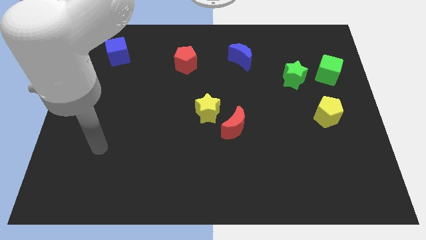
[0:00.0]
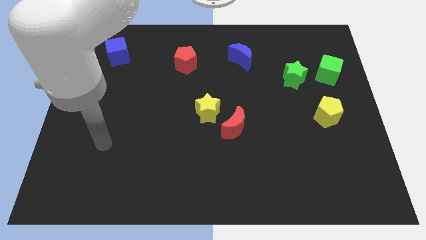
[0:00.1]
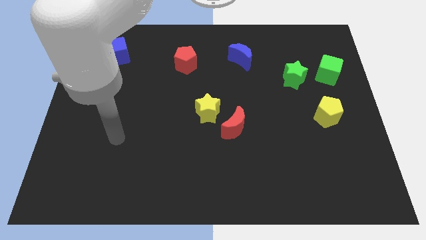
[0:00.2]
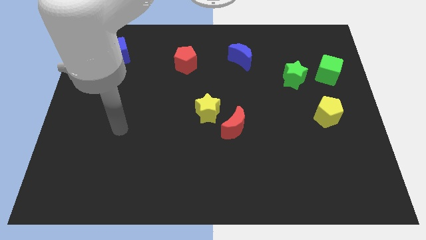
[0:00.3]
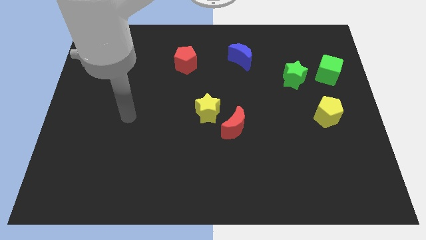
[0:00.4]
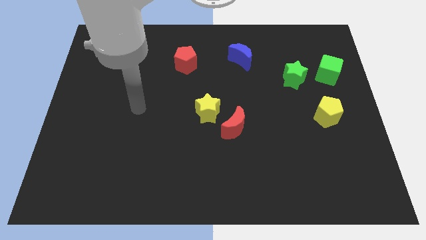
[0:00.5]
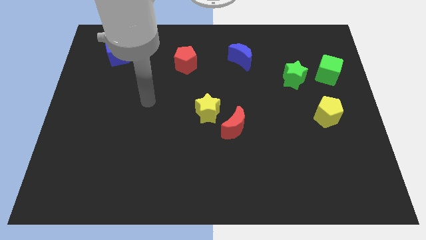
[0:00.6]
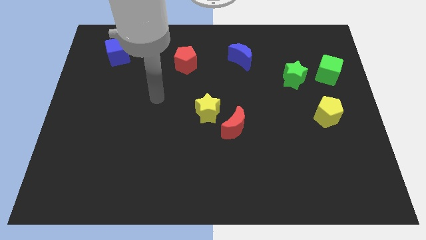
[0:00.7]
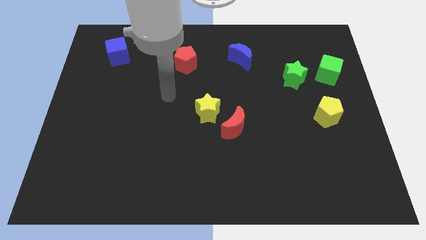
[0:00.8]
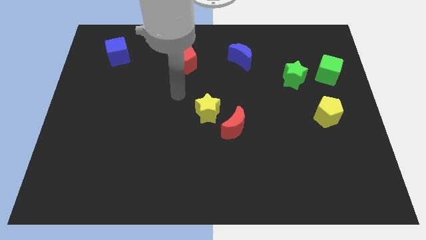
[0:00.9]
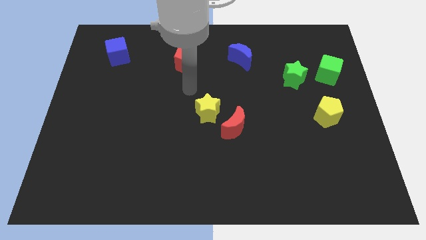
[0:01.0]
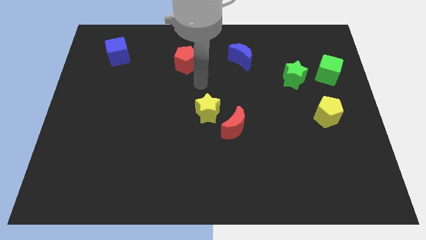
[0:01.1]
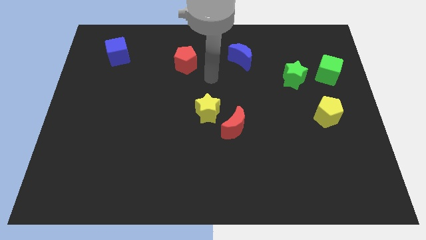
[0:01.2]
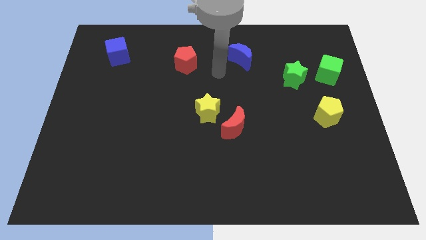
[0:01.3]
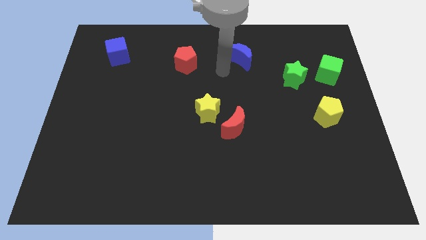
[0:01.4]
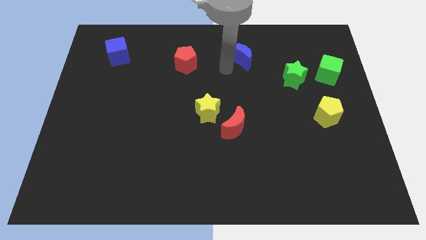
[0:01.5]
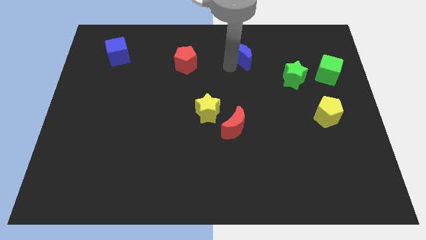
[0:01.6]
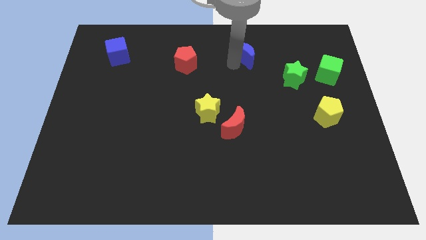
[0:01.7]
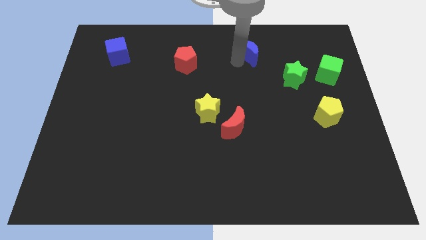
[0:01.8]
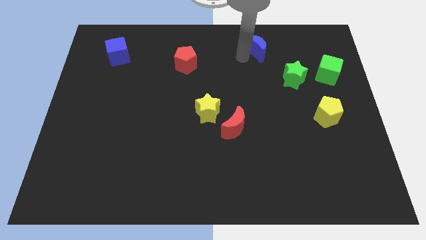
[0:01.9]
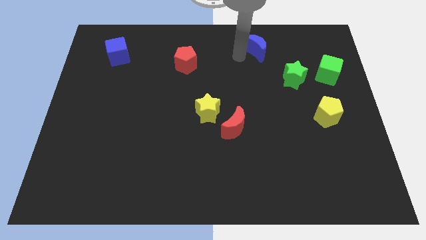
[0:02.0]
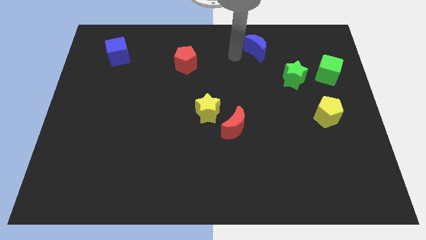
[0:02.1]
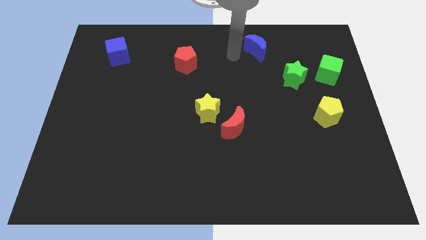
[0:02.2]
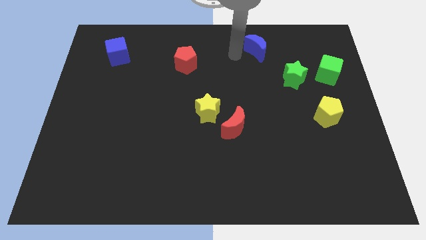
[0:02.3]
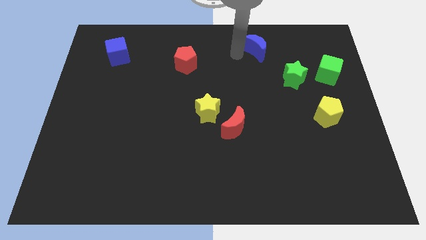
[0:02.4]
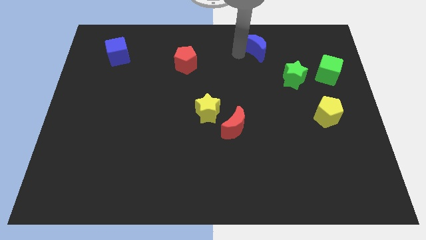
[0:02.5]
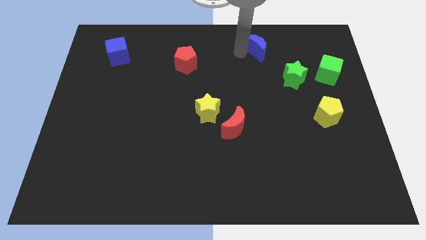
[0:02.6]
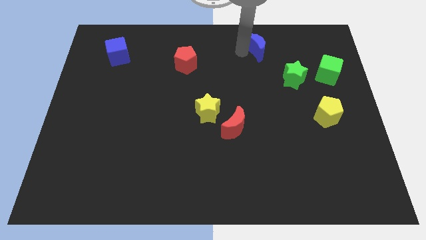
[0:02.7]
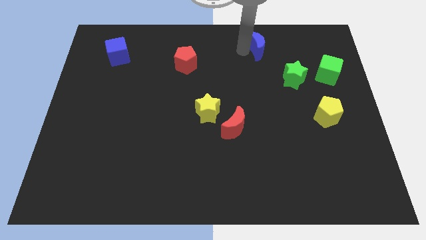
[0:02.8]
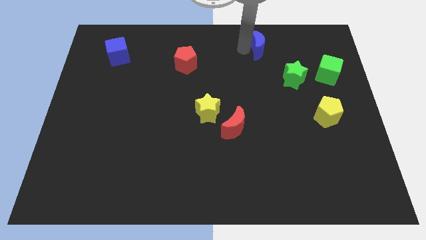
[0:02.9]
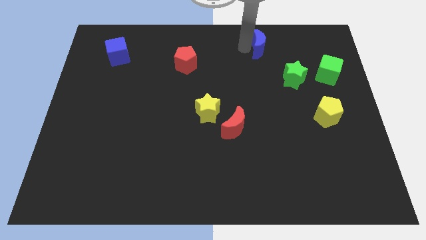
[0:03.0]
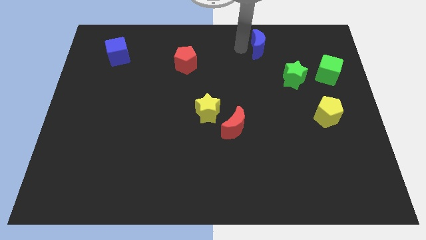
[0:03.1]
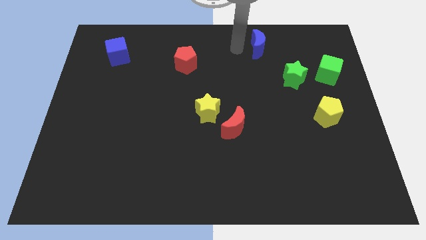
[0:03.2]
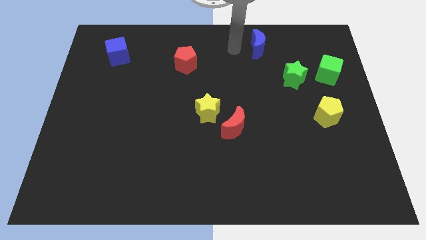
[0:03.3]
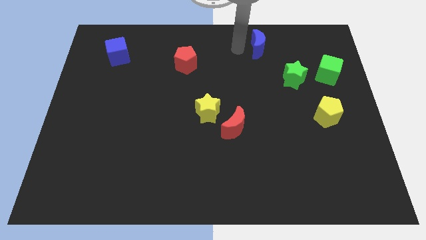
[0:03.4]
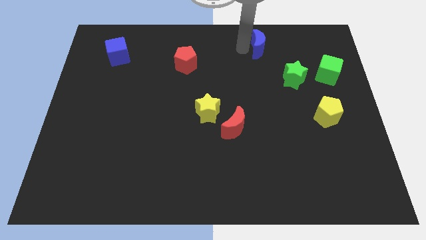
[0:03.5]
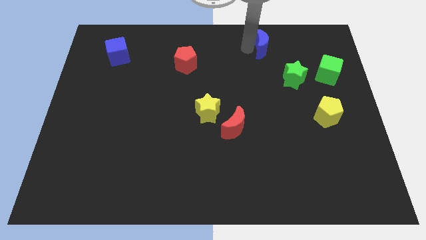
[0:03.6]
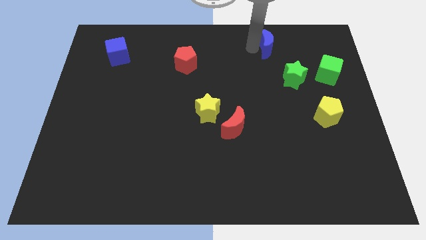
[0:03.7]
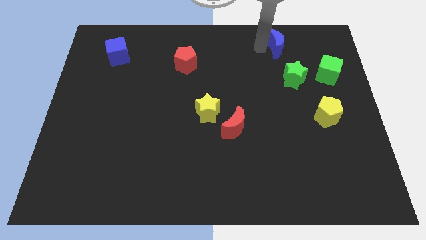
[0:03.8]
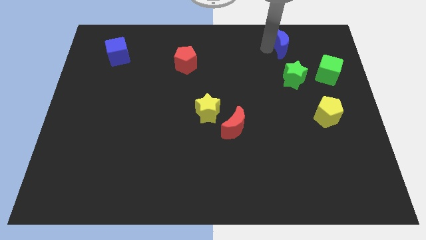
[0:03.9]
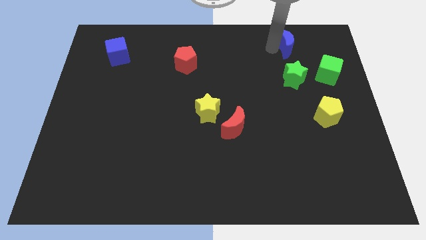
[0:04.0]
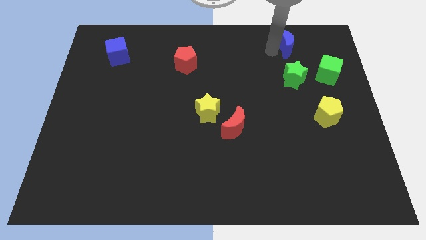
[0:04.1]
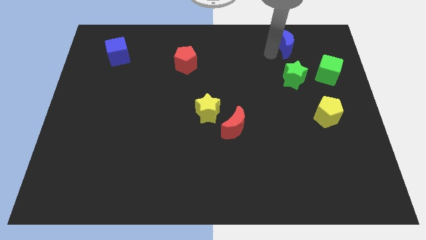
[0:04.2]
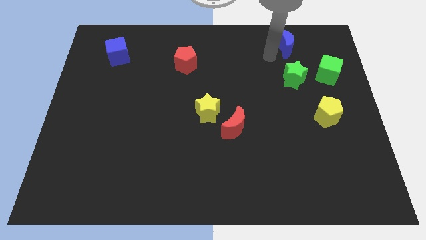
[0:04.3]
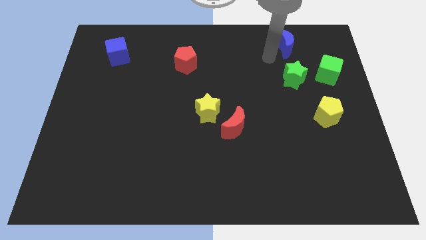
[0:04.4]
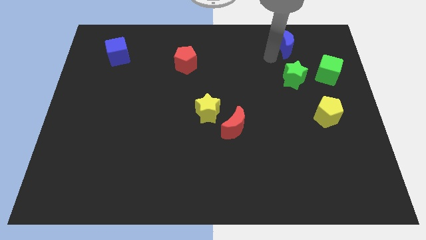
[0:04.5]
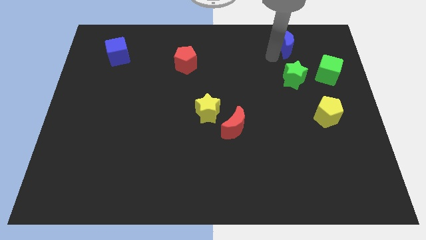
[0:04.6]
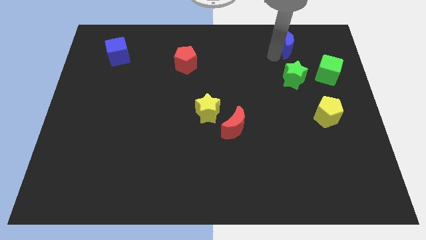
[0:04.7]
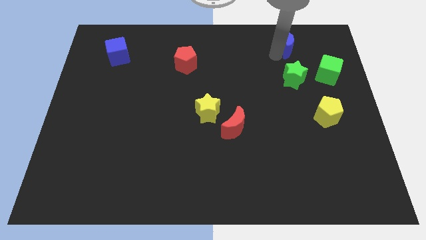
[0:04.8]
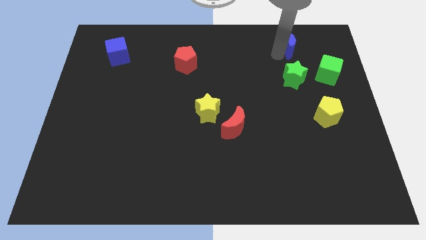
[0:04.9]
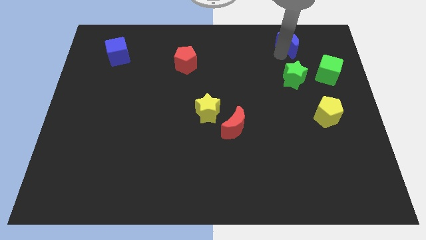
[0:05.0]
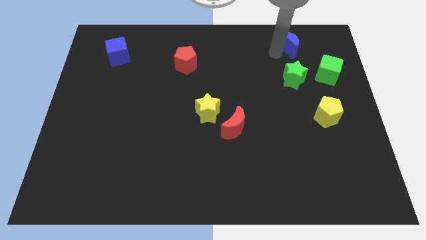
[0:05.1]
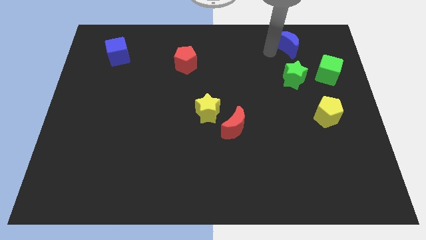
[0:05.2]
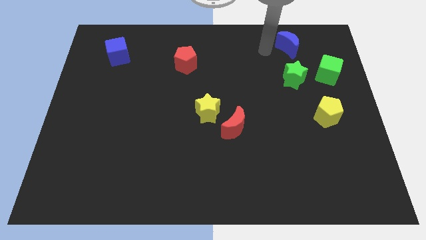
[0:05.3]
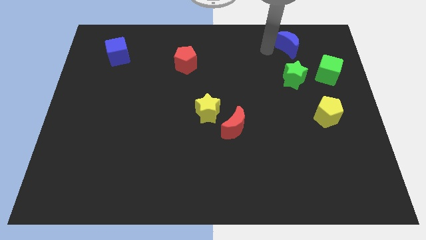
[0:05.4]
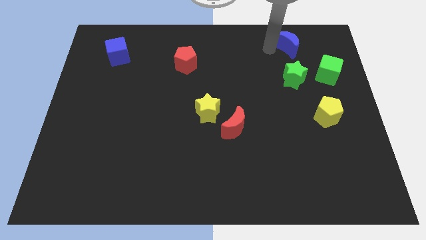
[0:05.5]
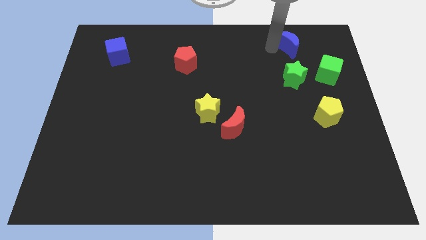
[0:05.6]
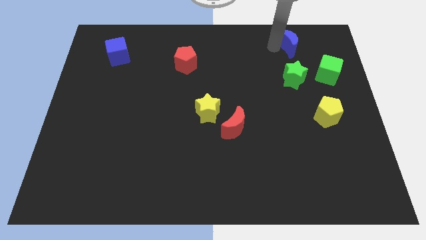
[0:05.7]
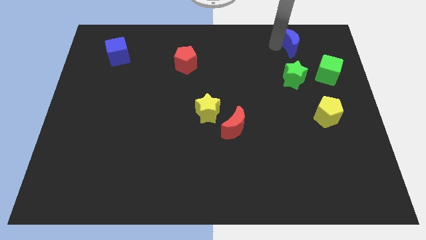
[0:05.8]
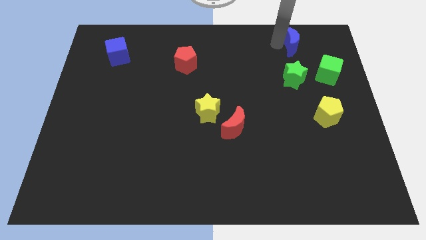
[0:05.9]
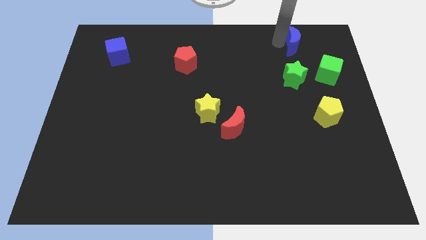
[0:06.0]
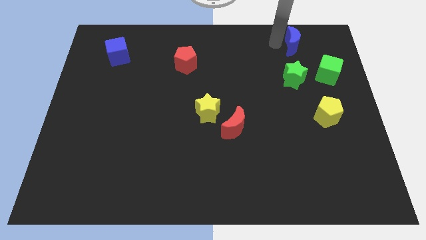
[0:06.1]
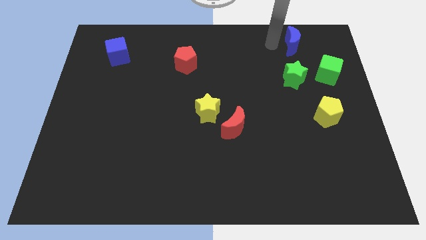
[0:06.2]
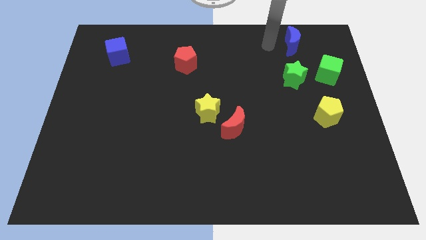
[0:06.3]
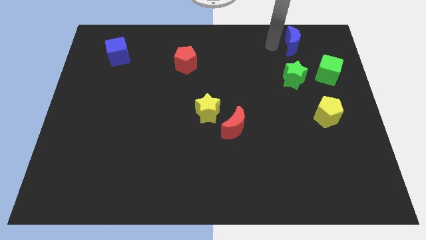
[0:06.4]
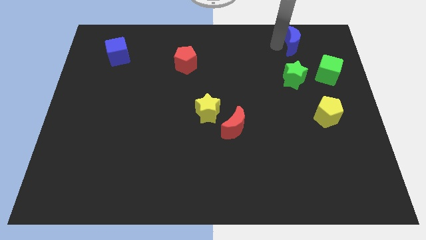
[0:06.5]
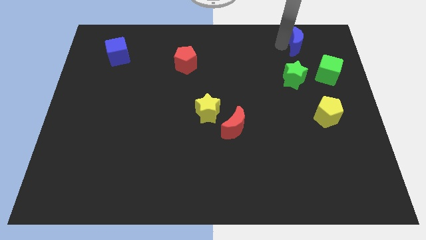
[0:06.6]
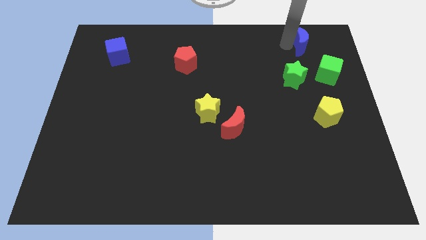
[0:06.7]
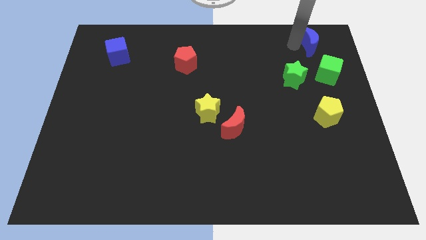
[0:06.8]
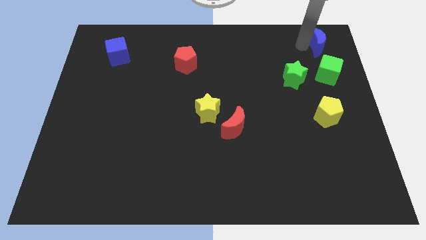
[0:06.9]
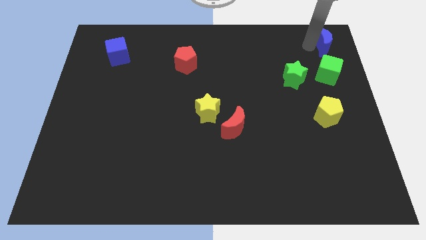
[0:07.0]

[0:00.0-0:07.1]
slide the blue moon to the upper right corner
